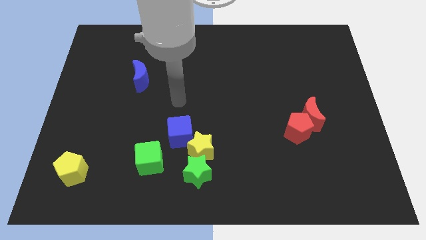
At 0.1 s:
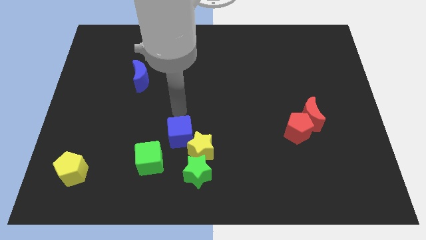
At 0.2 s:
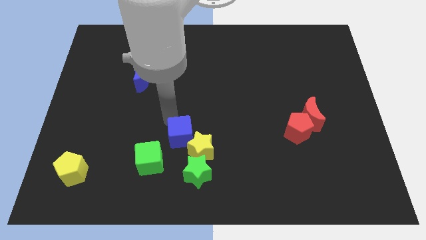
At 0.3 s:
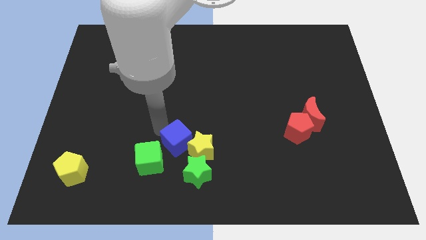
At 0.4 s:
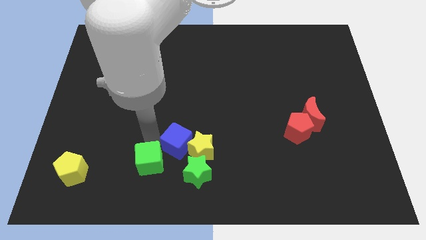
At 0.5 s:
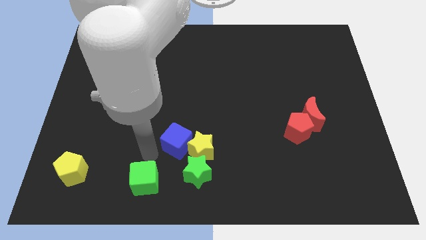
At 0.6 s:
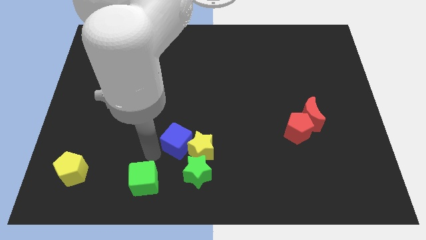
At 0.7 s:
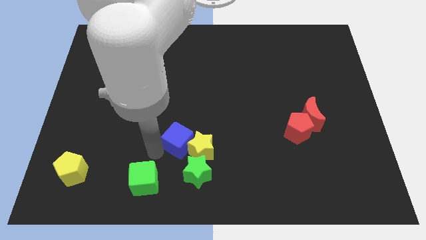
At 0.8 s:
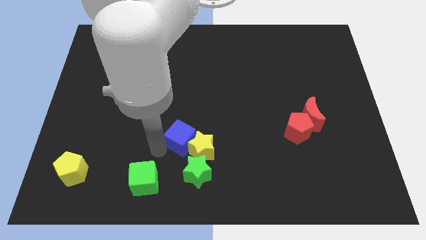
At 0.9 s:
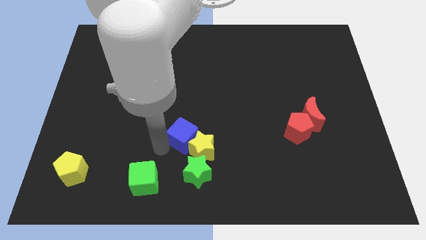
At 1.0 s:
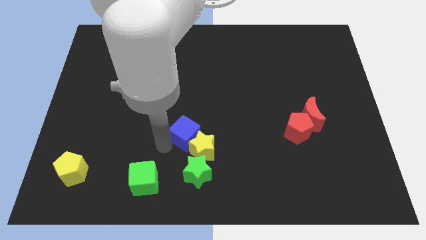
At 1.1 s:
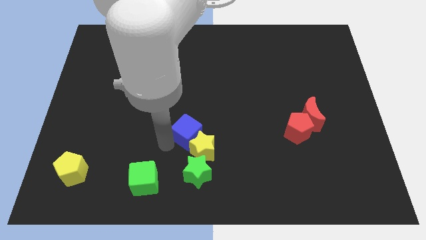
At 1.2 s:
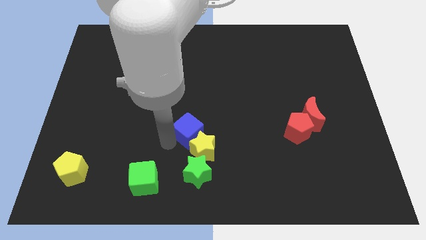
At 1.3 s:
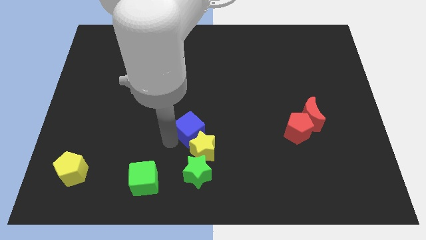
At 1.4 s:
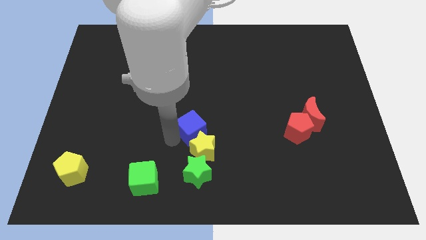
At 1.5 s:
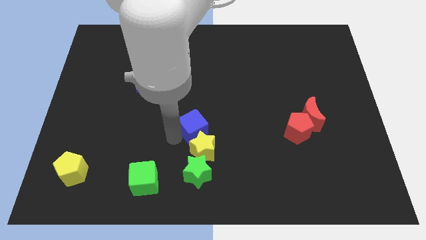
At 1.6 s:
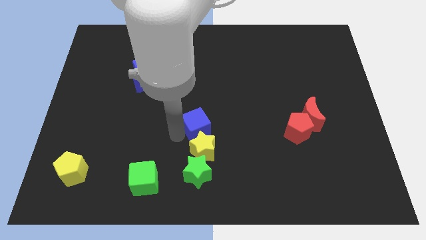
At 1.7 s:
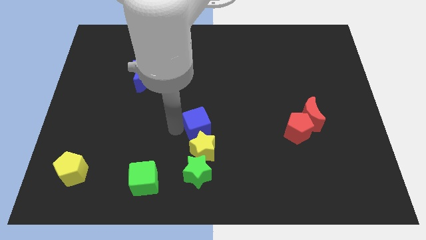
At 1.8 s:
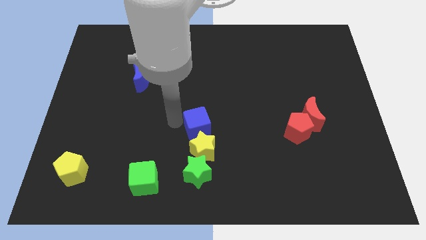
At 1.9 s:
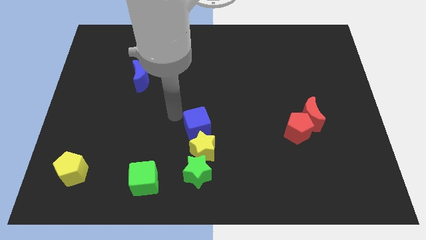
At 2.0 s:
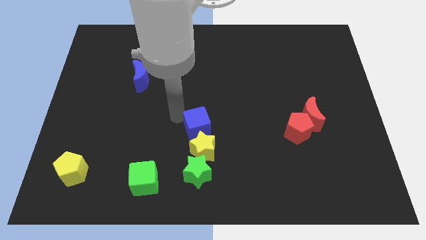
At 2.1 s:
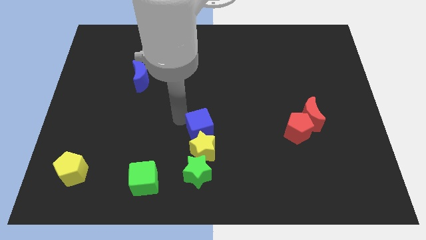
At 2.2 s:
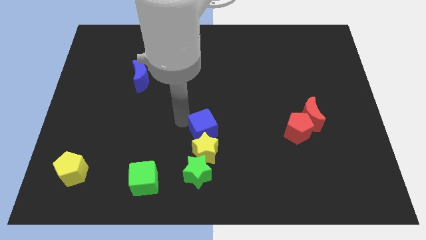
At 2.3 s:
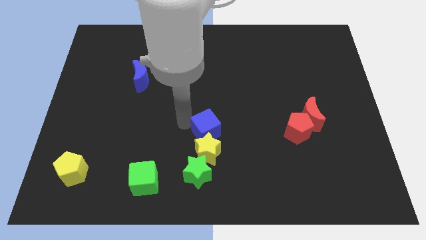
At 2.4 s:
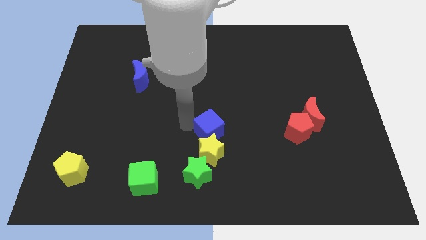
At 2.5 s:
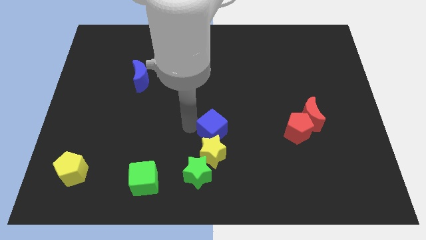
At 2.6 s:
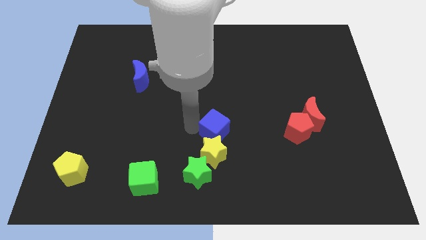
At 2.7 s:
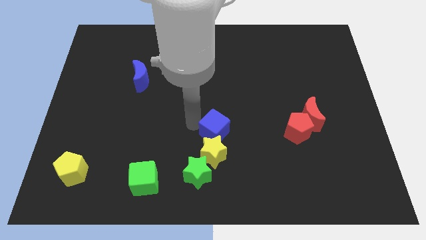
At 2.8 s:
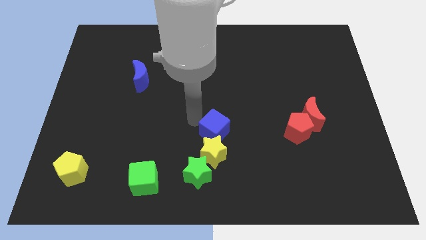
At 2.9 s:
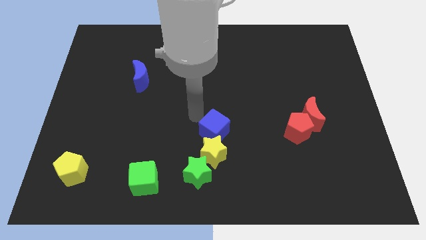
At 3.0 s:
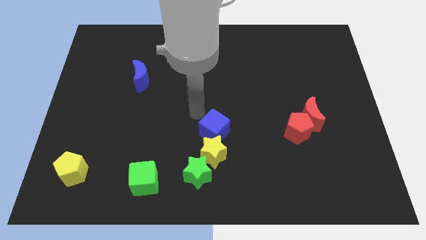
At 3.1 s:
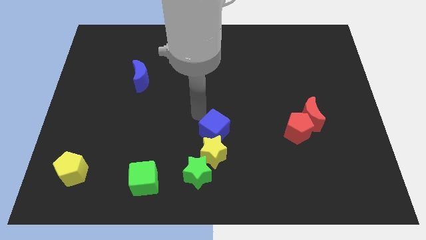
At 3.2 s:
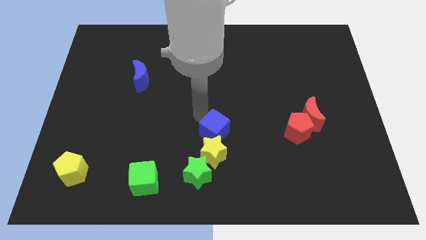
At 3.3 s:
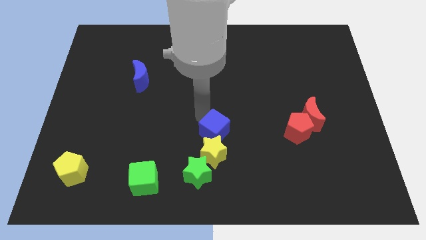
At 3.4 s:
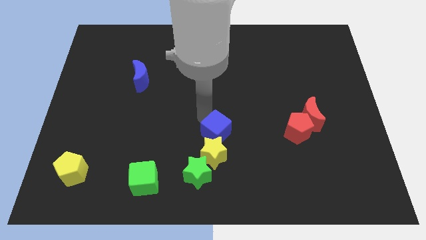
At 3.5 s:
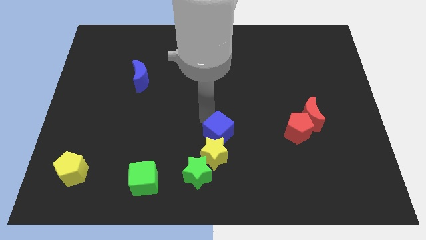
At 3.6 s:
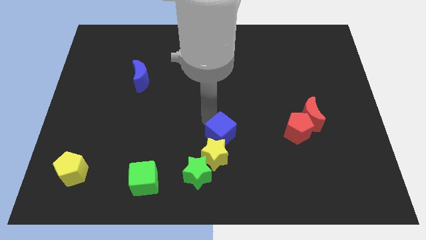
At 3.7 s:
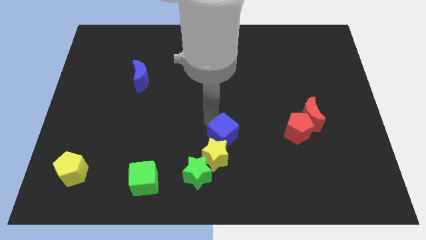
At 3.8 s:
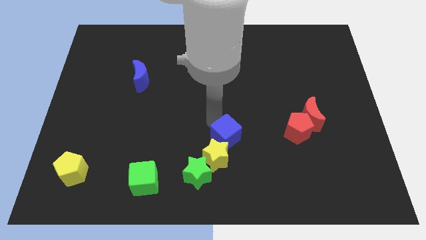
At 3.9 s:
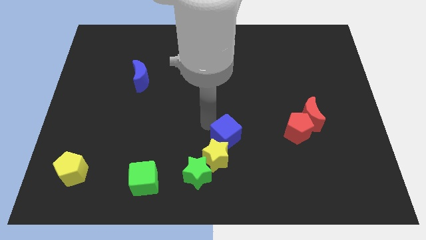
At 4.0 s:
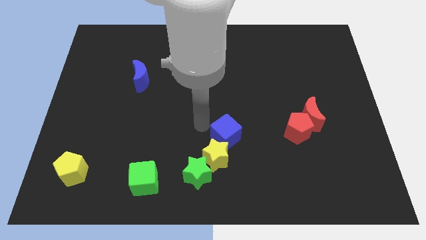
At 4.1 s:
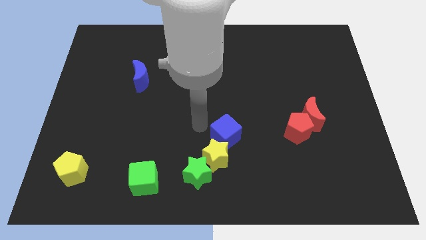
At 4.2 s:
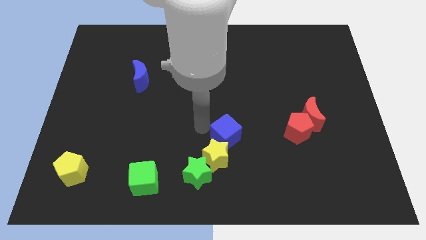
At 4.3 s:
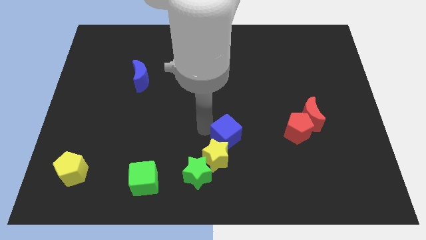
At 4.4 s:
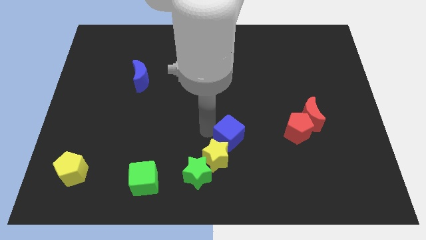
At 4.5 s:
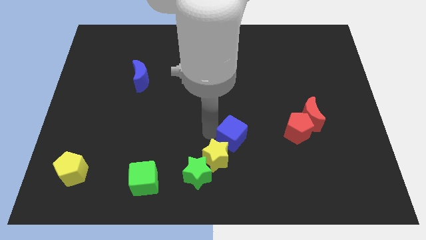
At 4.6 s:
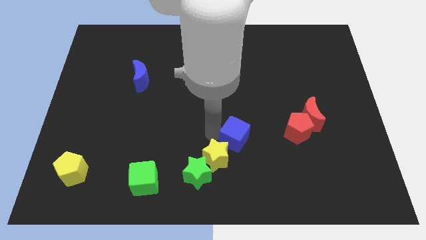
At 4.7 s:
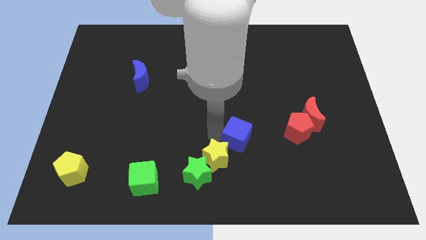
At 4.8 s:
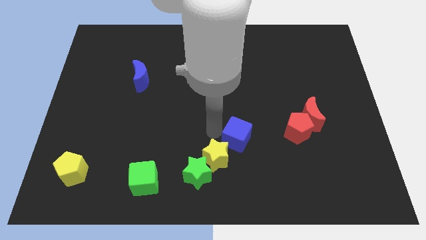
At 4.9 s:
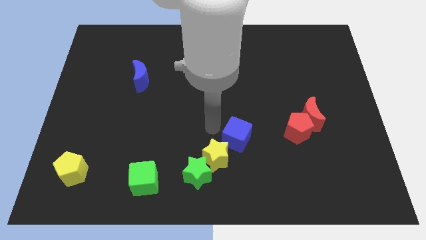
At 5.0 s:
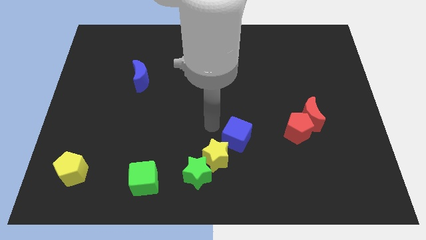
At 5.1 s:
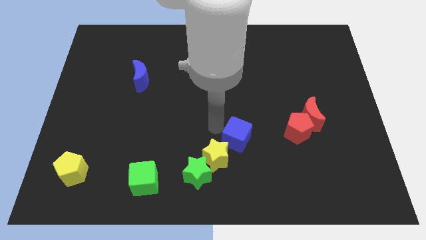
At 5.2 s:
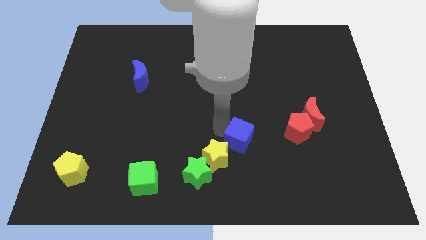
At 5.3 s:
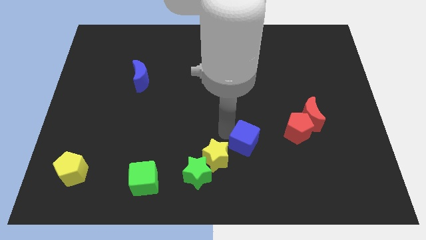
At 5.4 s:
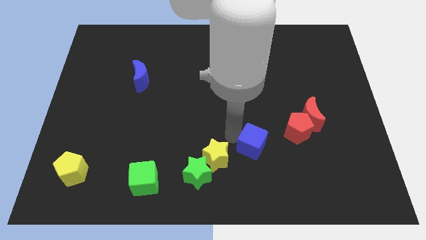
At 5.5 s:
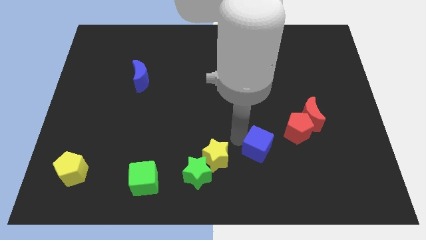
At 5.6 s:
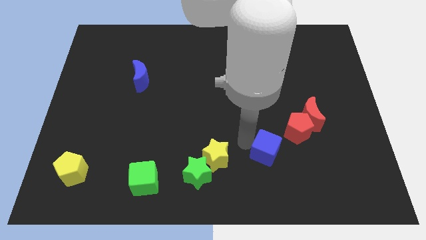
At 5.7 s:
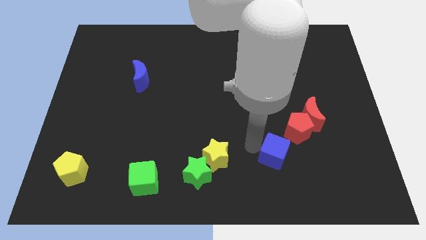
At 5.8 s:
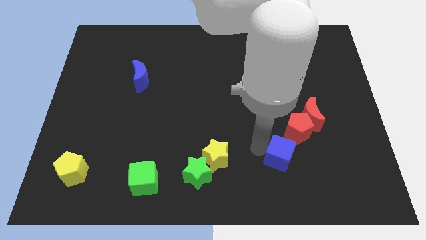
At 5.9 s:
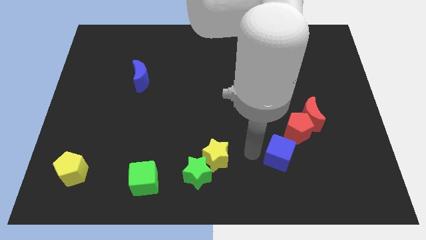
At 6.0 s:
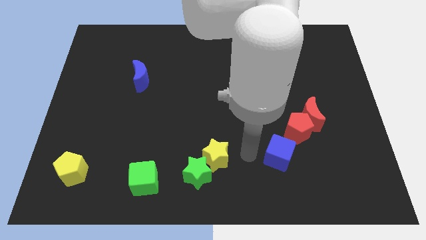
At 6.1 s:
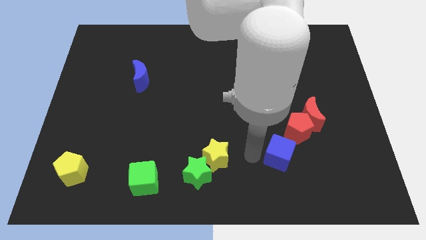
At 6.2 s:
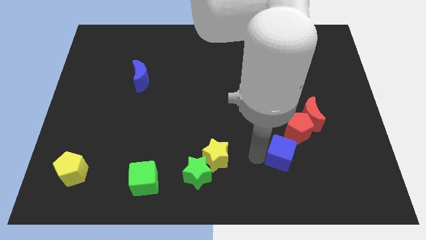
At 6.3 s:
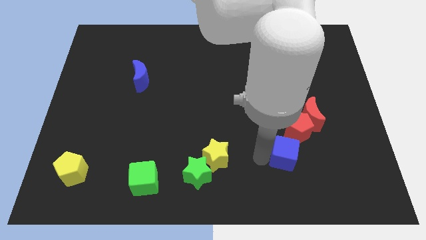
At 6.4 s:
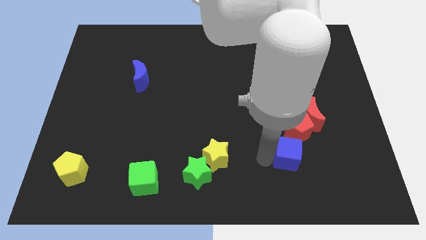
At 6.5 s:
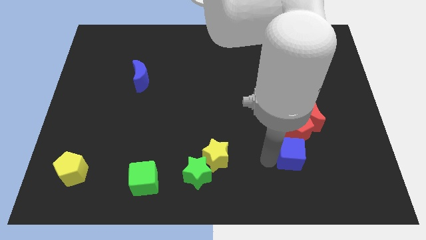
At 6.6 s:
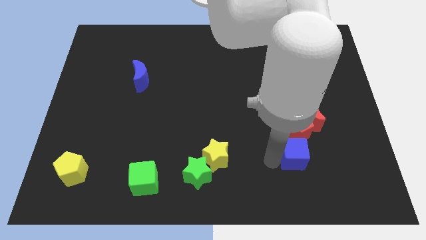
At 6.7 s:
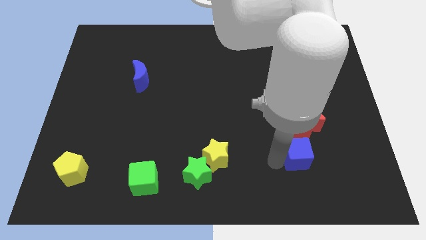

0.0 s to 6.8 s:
put the blue cube to the bottom of the red moon
